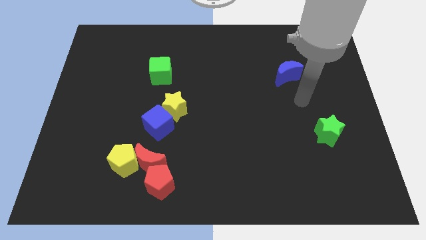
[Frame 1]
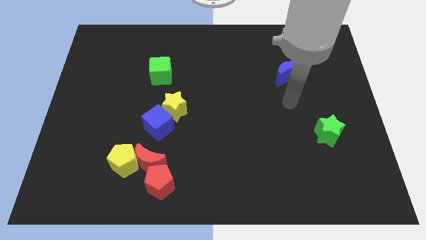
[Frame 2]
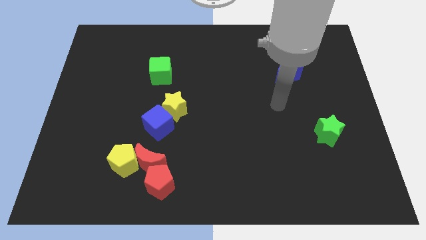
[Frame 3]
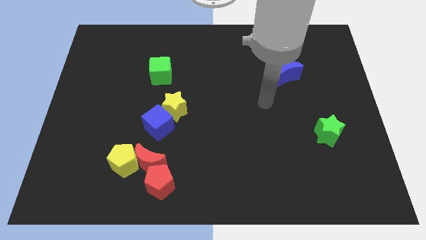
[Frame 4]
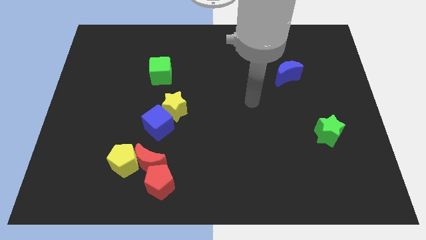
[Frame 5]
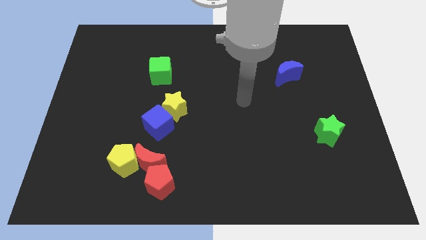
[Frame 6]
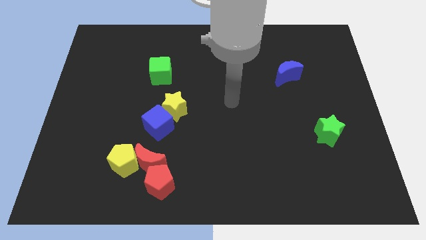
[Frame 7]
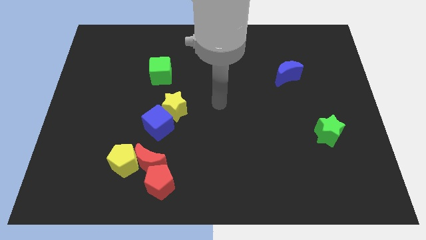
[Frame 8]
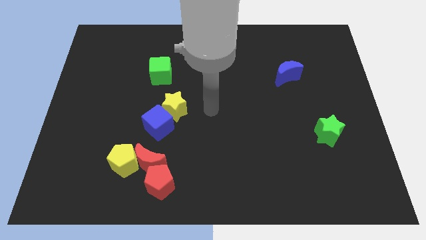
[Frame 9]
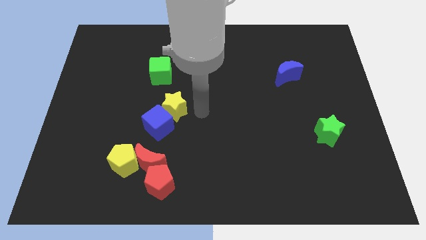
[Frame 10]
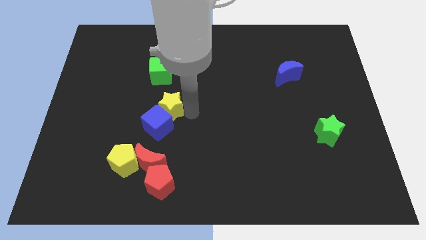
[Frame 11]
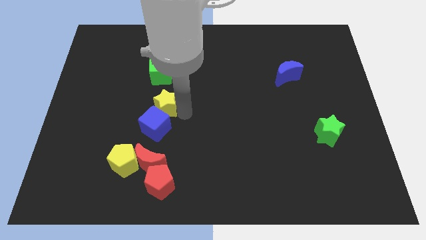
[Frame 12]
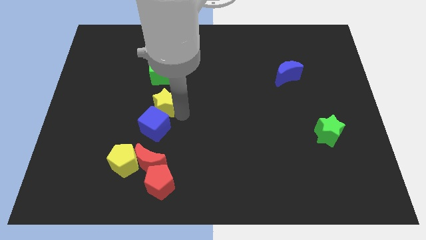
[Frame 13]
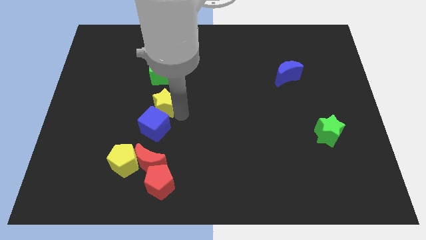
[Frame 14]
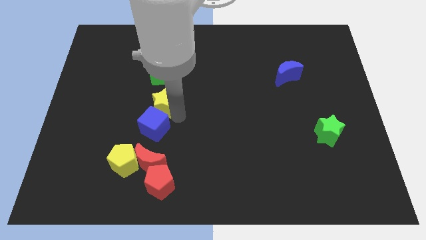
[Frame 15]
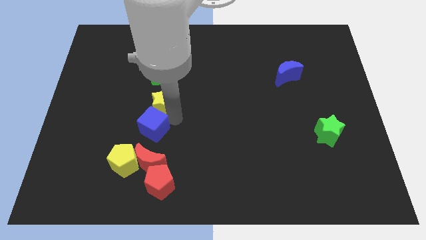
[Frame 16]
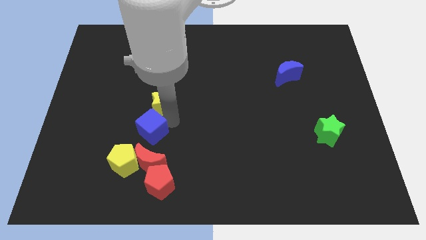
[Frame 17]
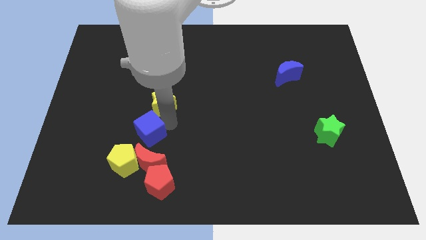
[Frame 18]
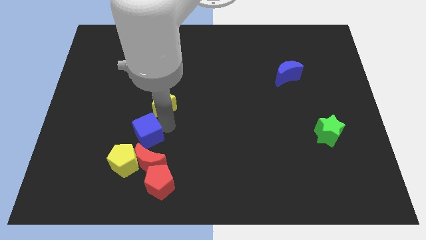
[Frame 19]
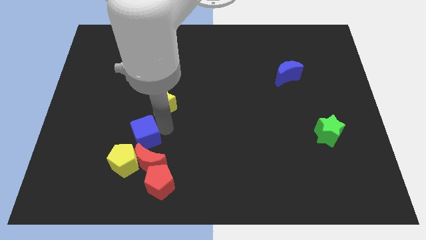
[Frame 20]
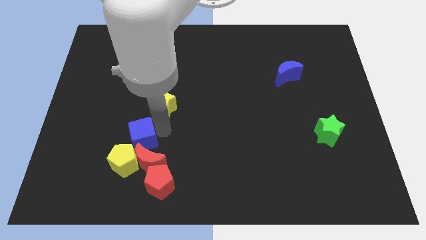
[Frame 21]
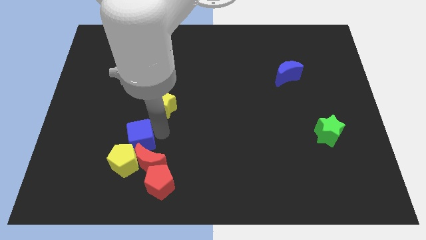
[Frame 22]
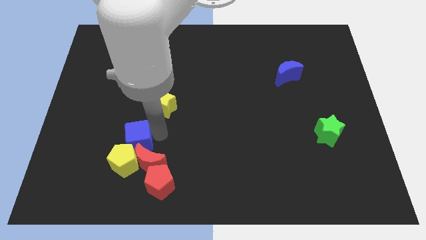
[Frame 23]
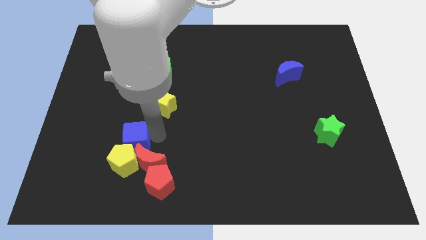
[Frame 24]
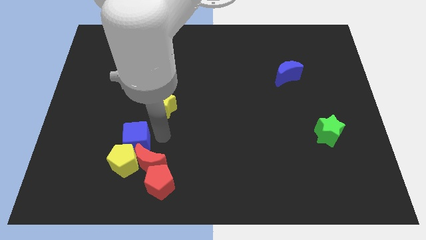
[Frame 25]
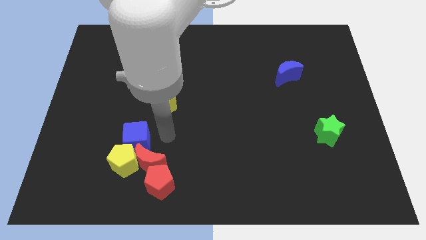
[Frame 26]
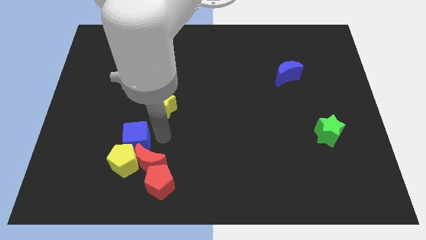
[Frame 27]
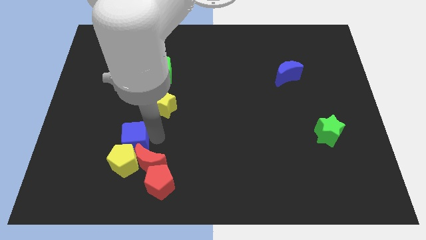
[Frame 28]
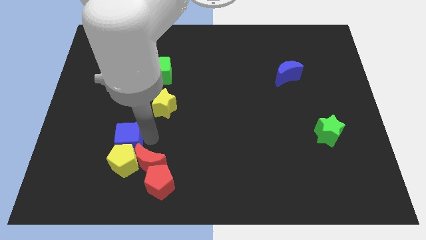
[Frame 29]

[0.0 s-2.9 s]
push the blue cube a little downwards and to the left diagonally

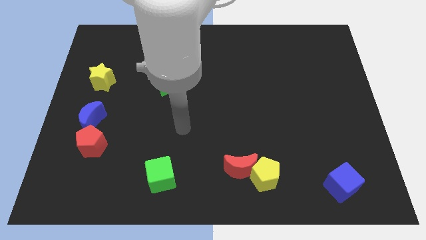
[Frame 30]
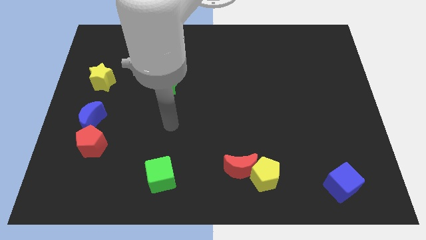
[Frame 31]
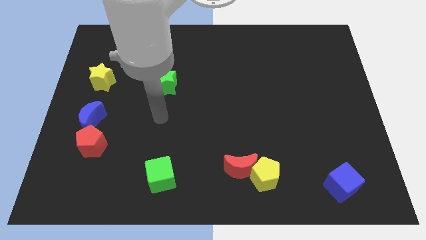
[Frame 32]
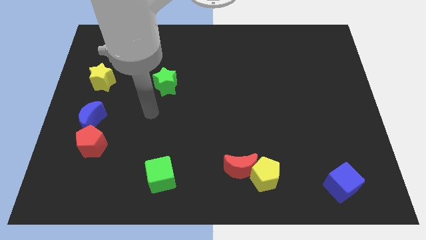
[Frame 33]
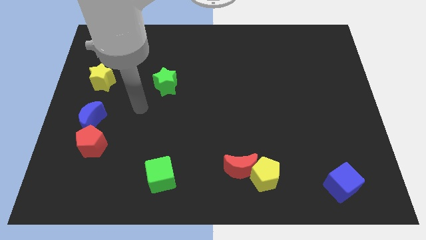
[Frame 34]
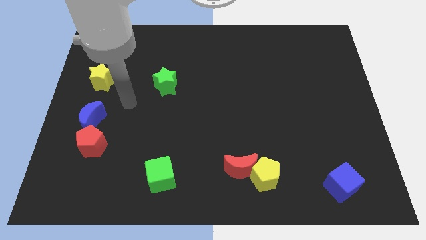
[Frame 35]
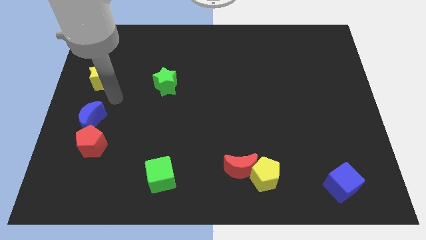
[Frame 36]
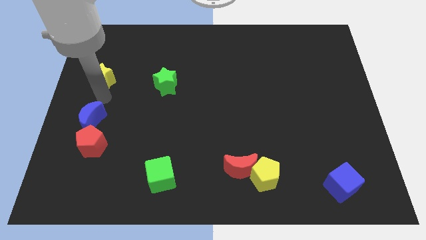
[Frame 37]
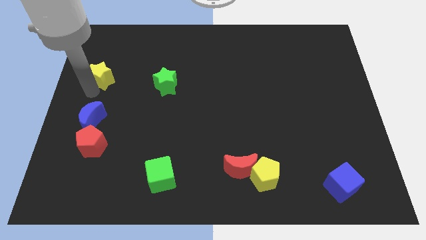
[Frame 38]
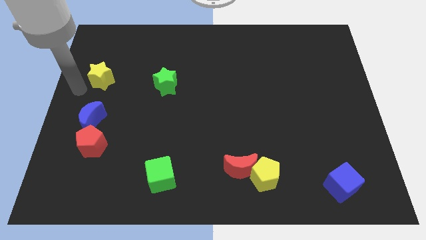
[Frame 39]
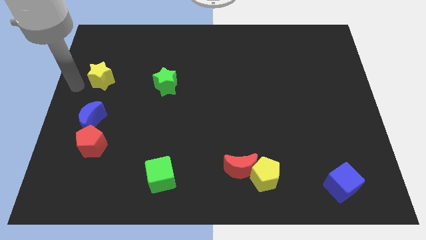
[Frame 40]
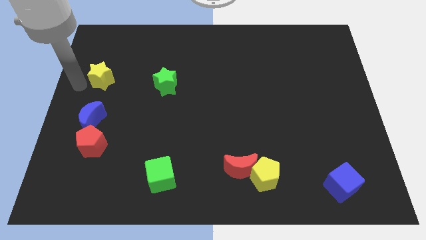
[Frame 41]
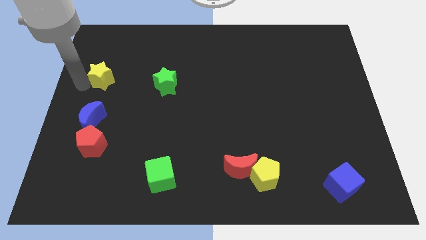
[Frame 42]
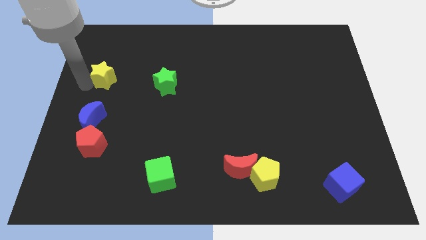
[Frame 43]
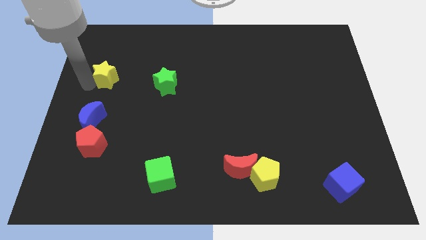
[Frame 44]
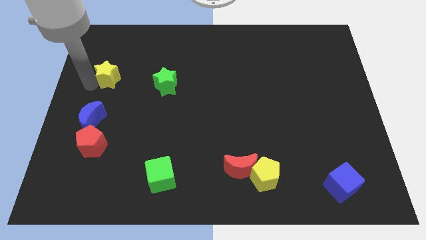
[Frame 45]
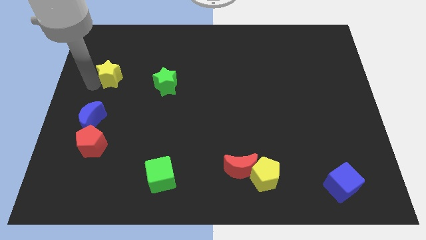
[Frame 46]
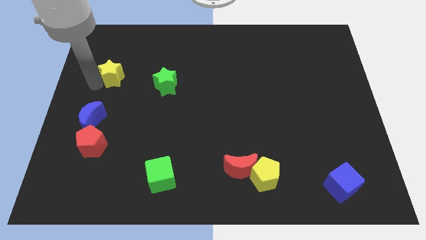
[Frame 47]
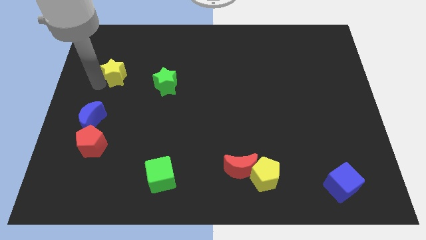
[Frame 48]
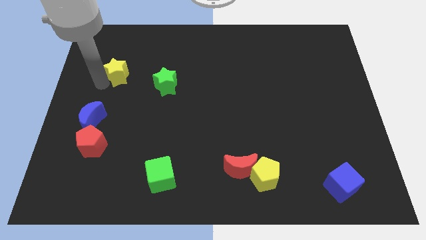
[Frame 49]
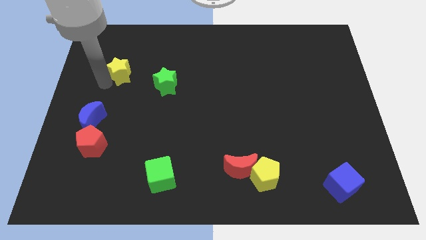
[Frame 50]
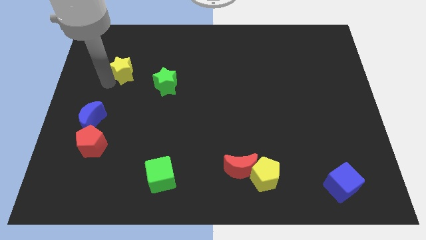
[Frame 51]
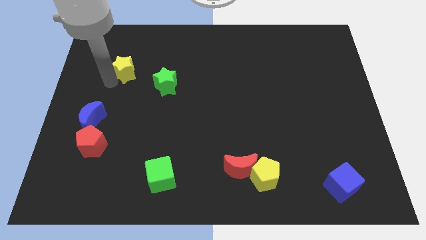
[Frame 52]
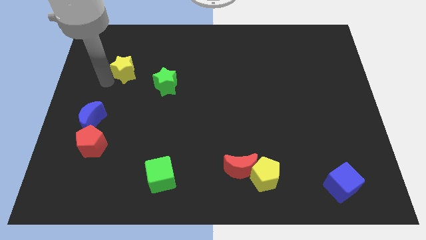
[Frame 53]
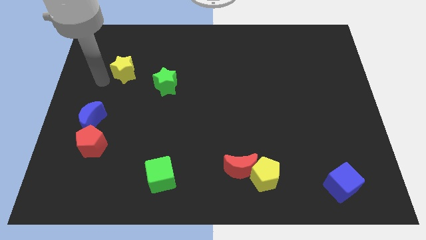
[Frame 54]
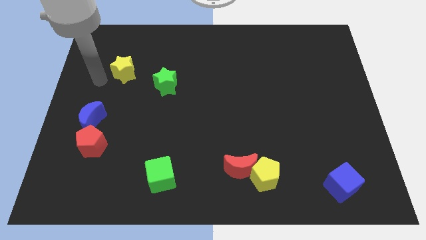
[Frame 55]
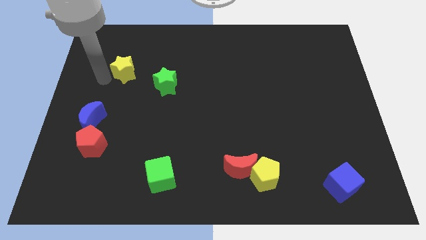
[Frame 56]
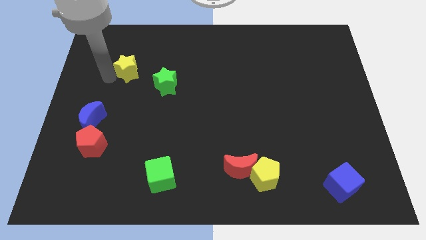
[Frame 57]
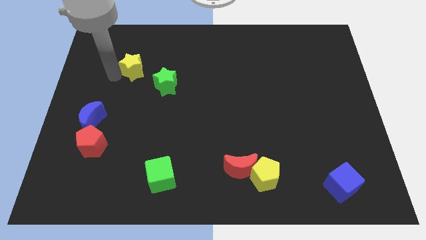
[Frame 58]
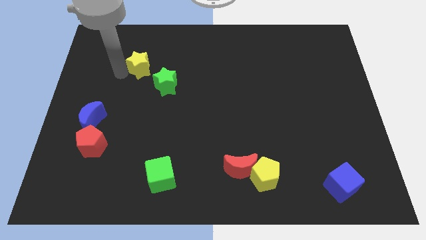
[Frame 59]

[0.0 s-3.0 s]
slide the yellow star to the right a little

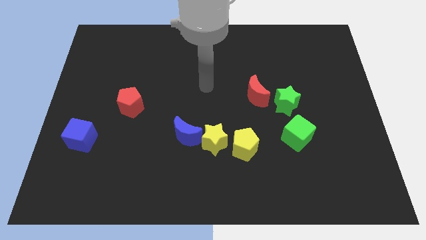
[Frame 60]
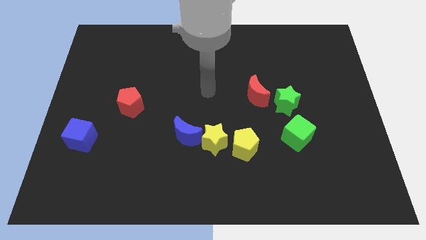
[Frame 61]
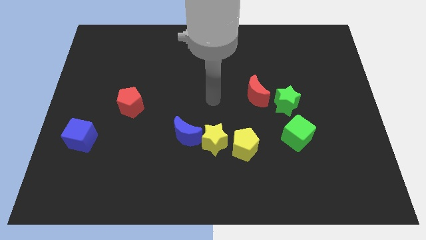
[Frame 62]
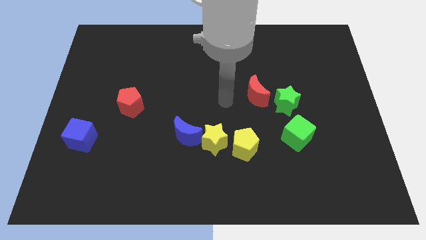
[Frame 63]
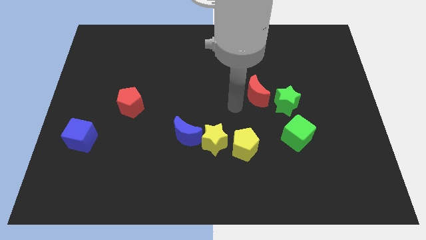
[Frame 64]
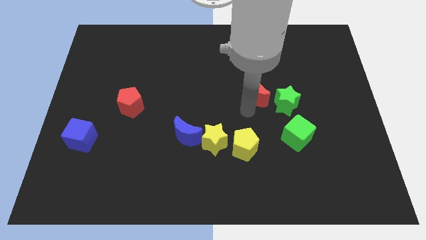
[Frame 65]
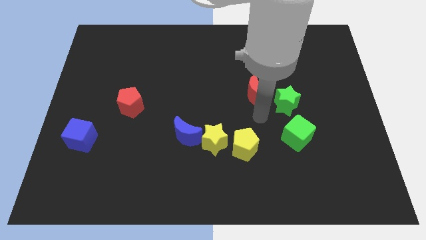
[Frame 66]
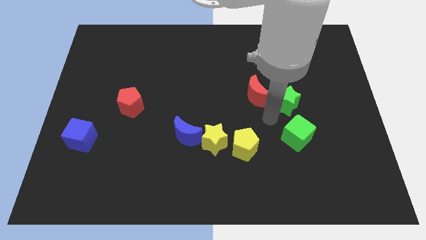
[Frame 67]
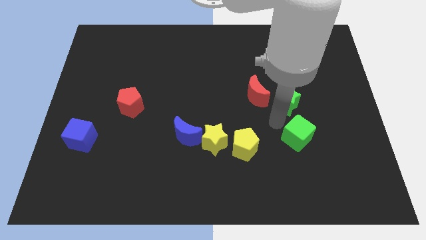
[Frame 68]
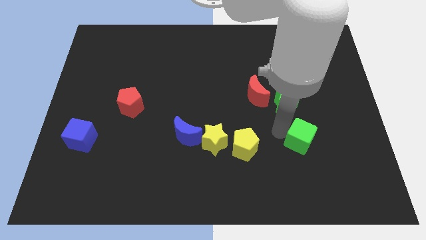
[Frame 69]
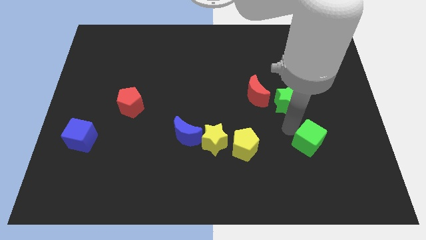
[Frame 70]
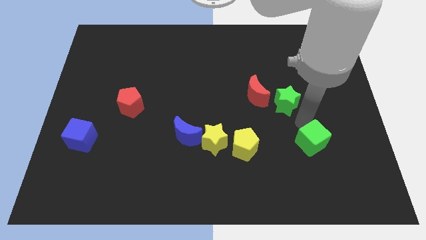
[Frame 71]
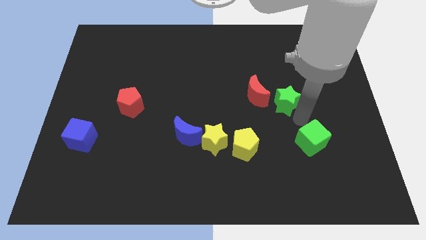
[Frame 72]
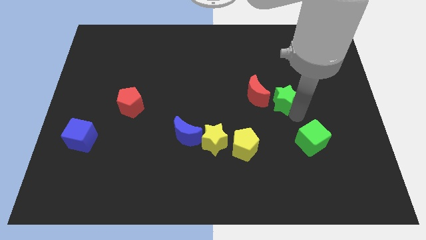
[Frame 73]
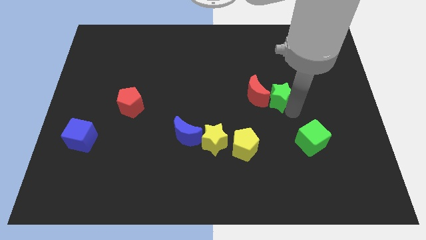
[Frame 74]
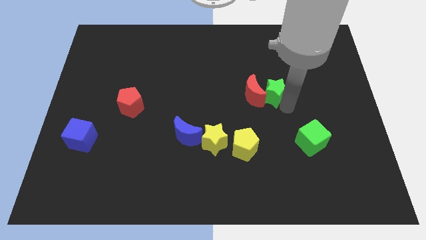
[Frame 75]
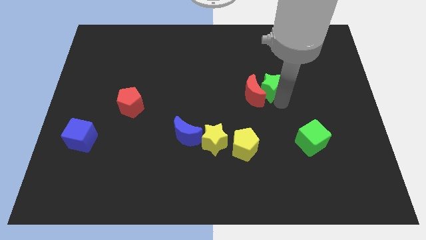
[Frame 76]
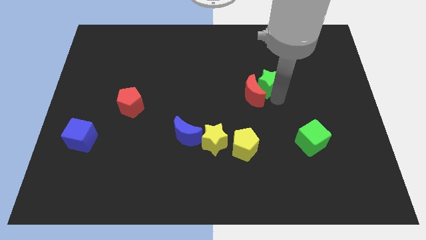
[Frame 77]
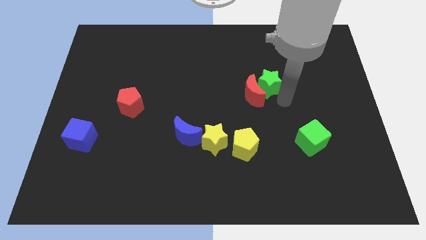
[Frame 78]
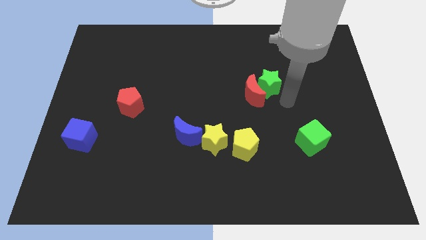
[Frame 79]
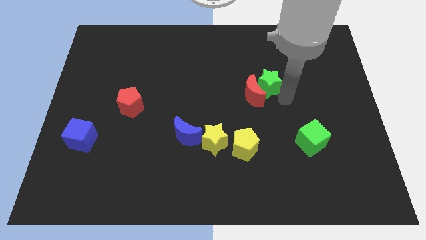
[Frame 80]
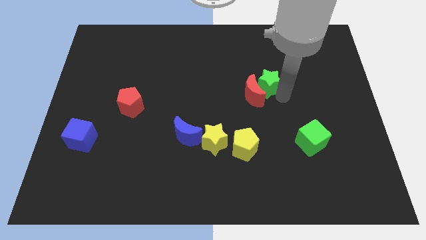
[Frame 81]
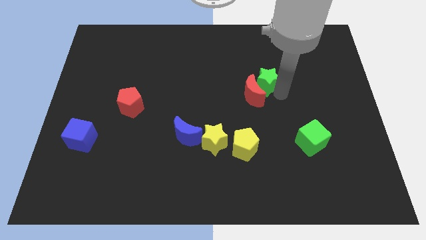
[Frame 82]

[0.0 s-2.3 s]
slide the green star diagonally upwards and to the left a little

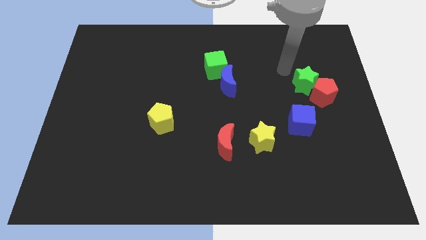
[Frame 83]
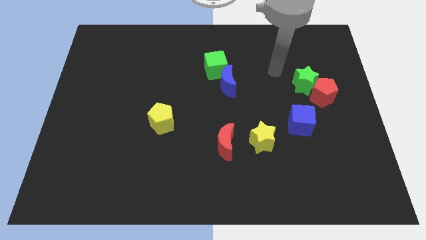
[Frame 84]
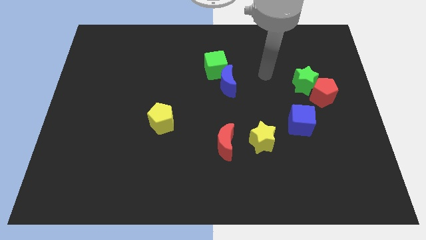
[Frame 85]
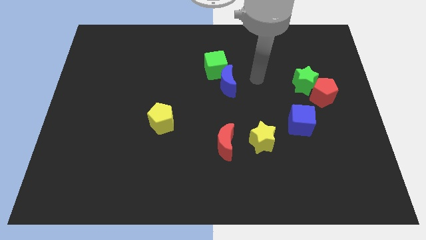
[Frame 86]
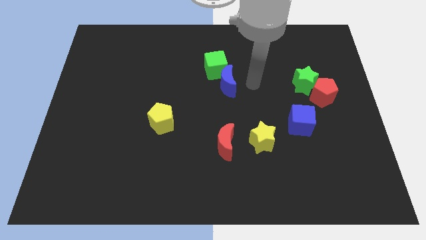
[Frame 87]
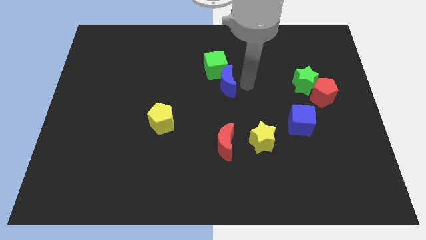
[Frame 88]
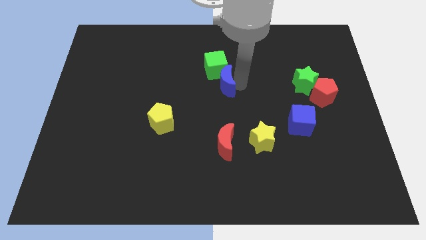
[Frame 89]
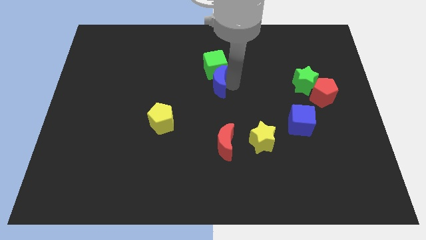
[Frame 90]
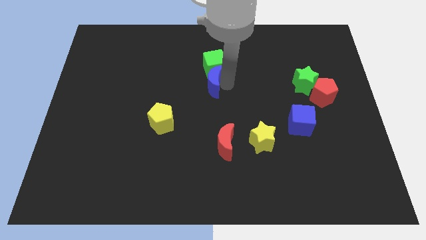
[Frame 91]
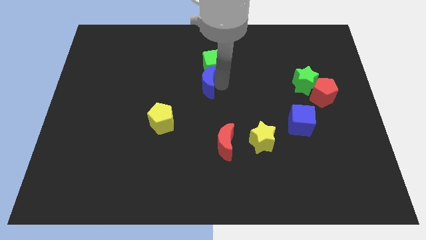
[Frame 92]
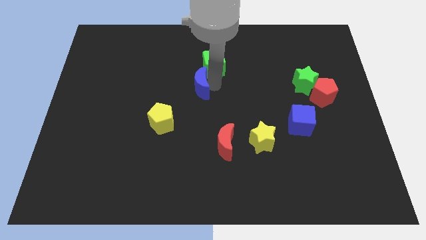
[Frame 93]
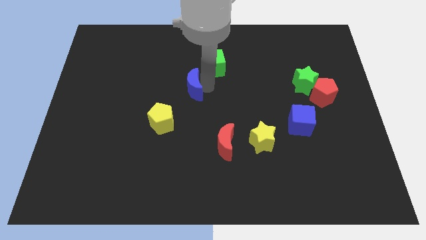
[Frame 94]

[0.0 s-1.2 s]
slide the blue moon left somewhat
